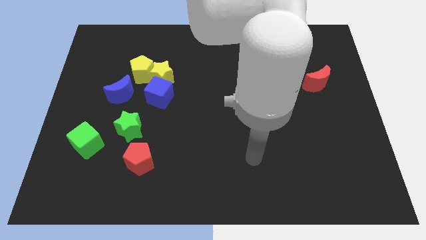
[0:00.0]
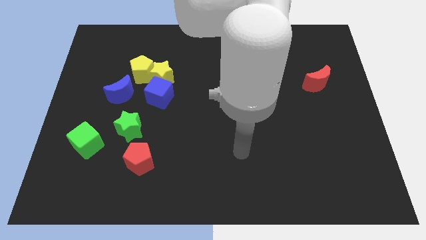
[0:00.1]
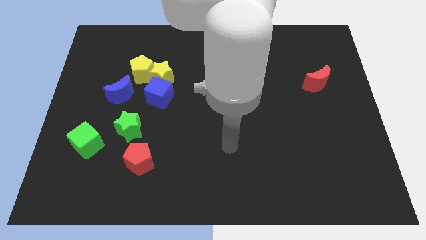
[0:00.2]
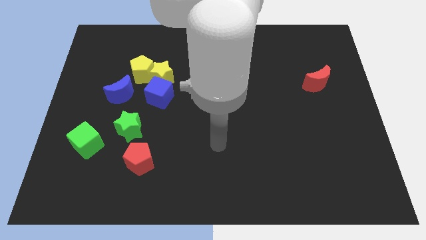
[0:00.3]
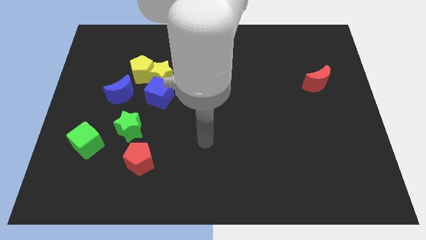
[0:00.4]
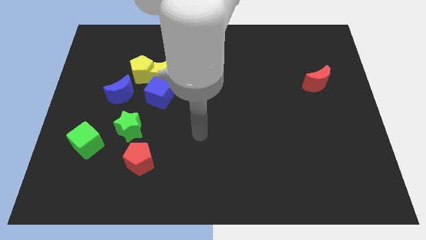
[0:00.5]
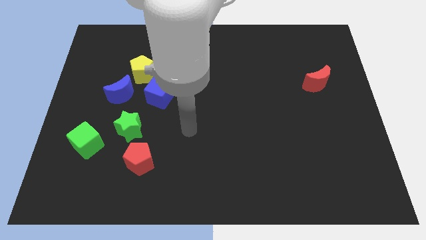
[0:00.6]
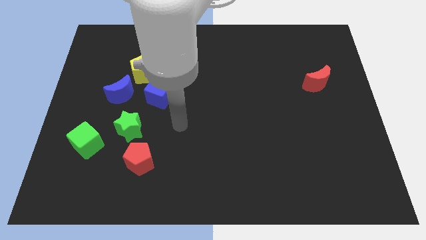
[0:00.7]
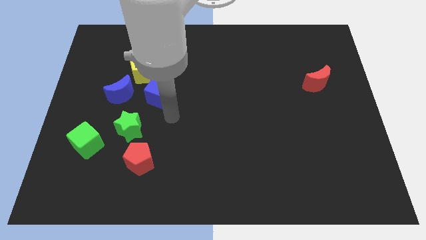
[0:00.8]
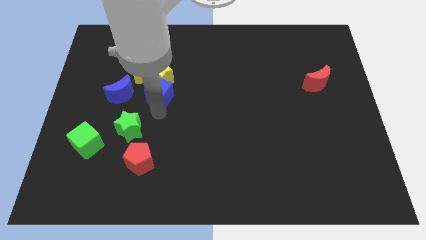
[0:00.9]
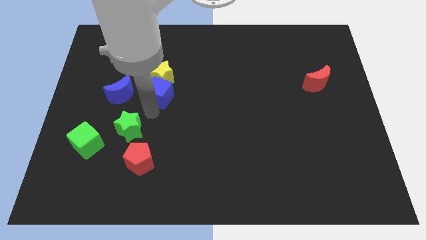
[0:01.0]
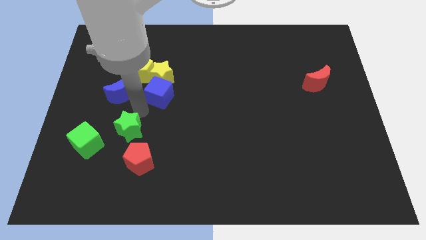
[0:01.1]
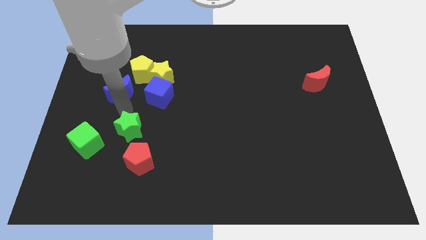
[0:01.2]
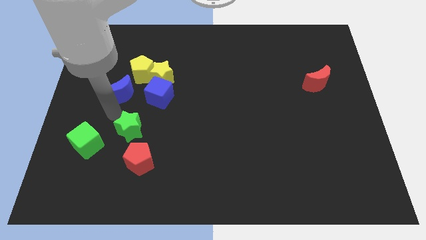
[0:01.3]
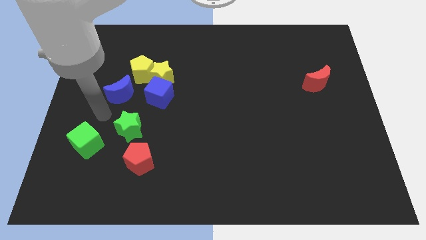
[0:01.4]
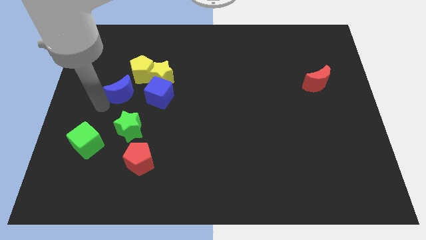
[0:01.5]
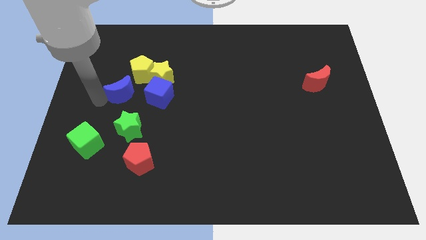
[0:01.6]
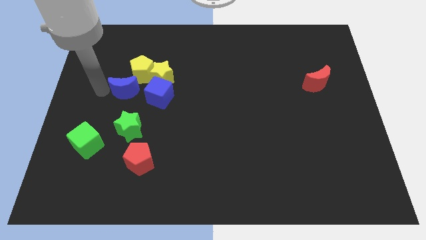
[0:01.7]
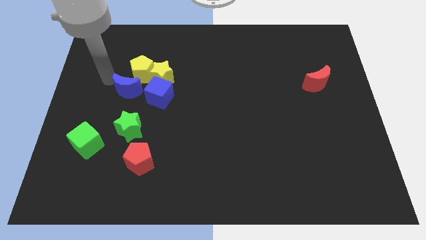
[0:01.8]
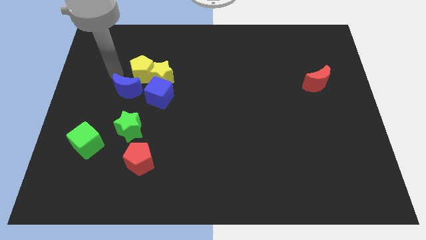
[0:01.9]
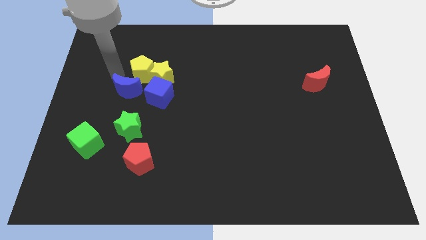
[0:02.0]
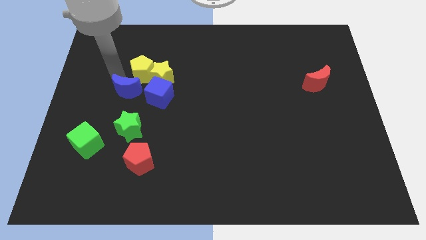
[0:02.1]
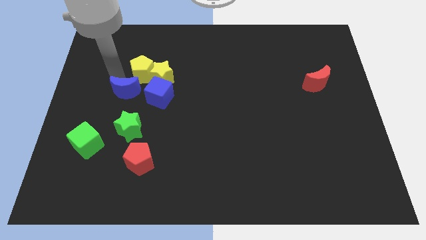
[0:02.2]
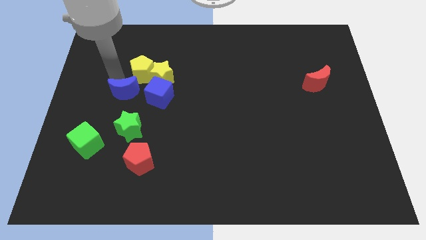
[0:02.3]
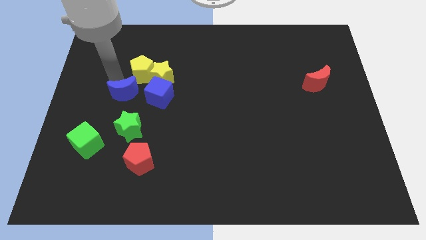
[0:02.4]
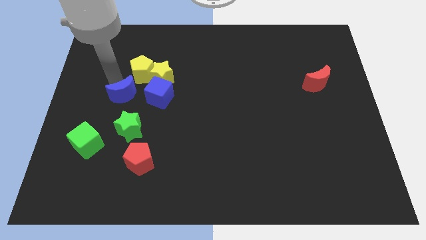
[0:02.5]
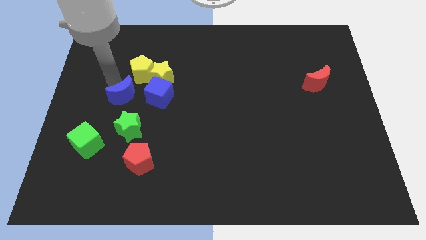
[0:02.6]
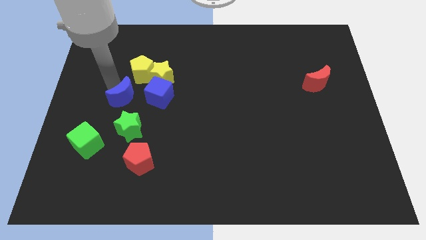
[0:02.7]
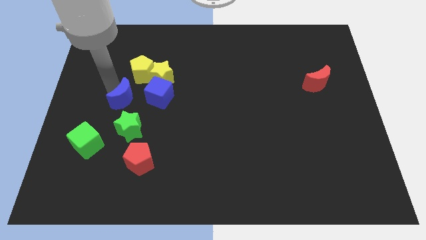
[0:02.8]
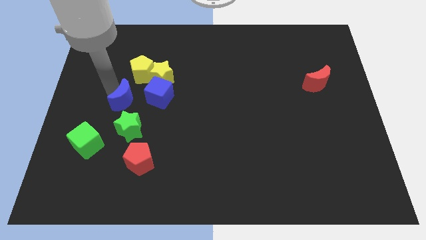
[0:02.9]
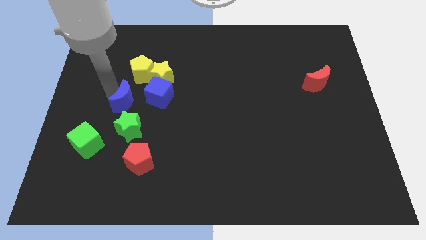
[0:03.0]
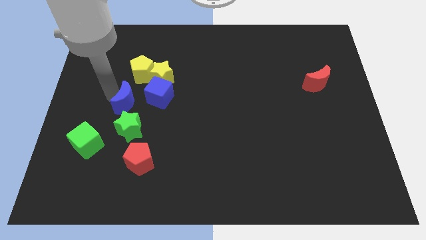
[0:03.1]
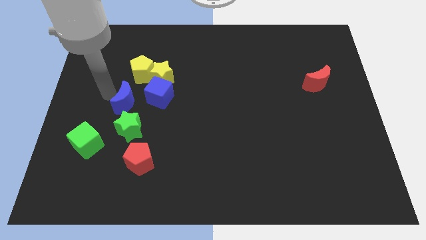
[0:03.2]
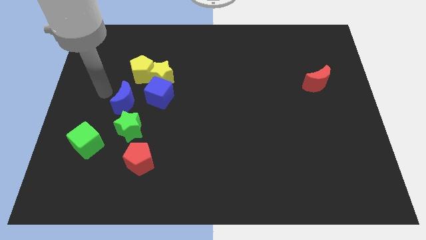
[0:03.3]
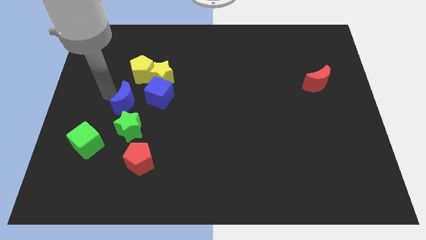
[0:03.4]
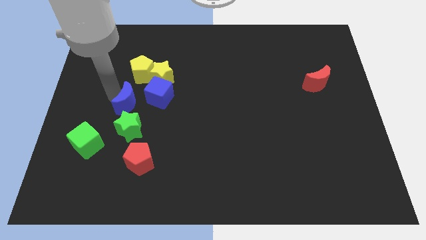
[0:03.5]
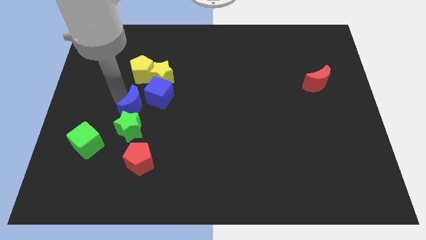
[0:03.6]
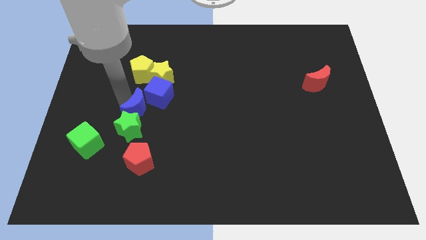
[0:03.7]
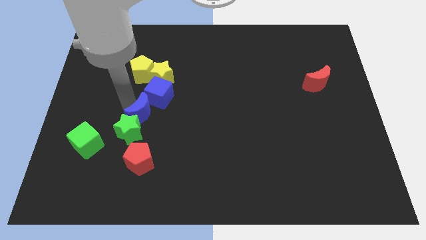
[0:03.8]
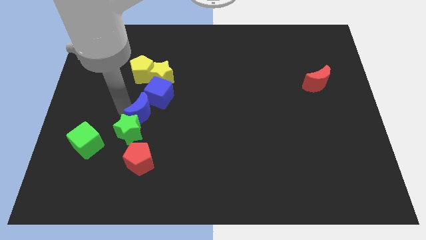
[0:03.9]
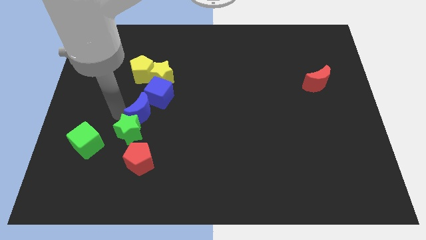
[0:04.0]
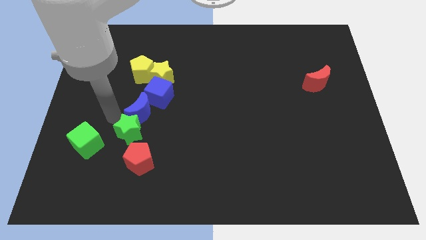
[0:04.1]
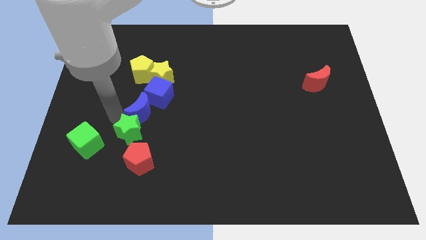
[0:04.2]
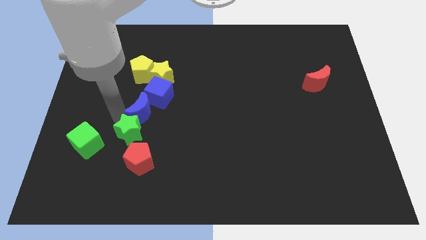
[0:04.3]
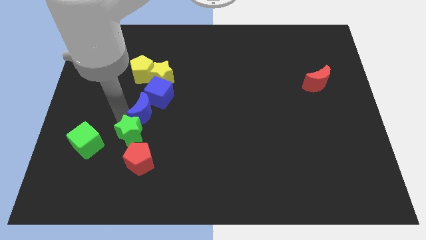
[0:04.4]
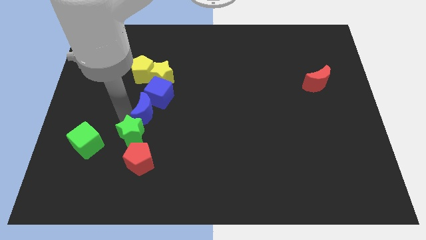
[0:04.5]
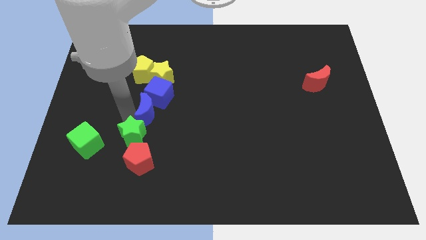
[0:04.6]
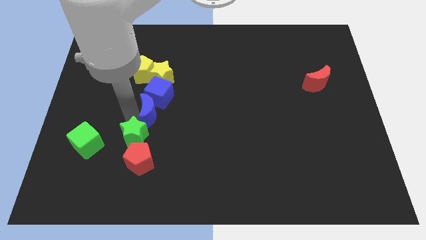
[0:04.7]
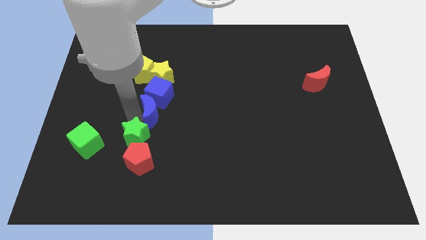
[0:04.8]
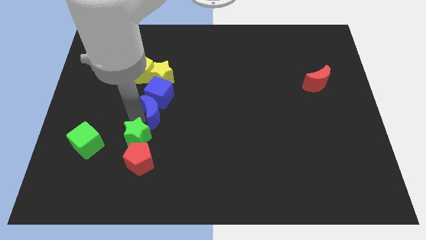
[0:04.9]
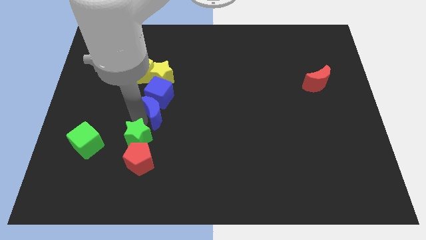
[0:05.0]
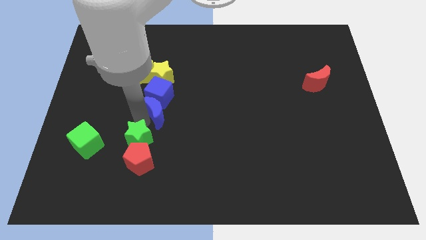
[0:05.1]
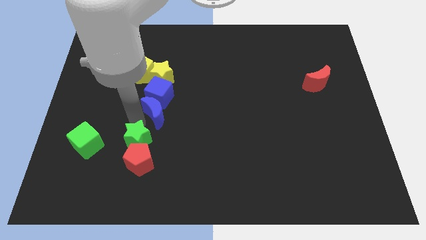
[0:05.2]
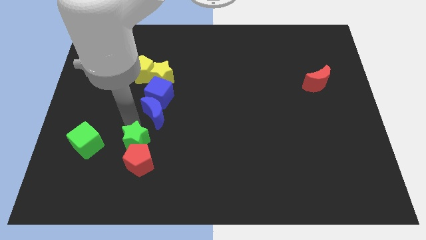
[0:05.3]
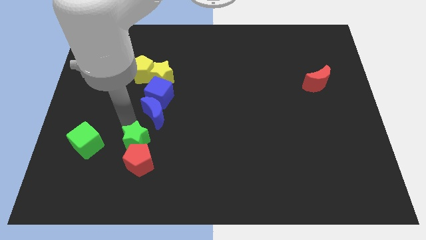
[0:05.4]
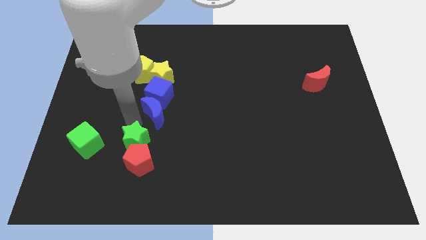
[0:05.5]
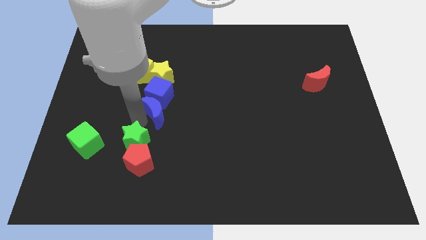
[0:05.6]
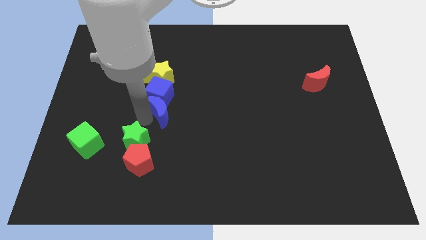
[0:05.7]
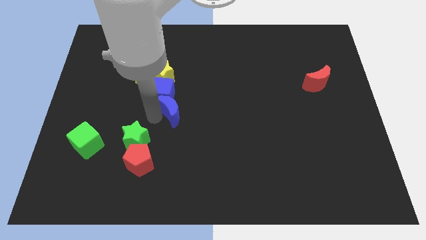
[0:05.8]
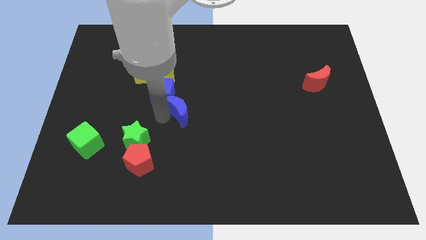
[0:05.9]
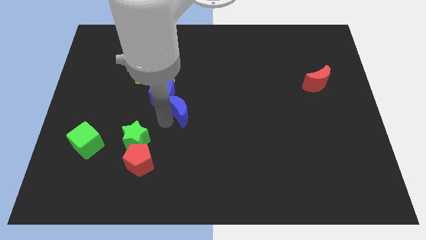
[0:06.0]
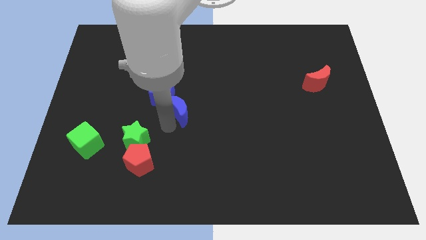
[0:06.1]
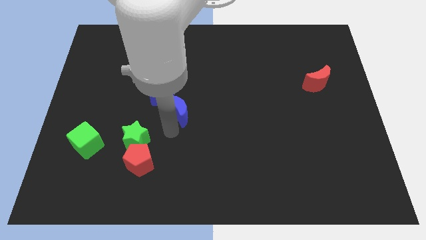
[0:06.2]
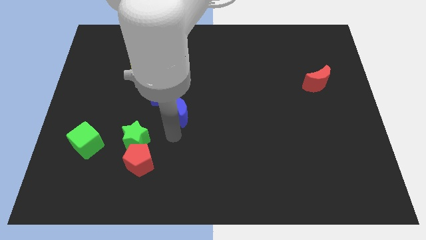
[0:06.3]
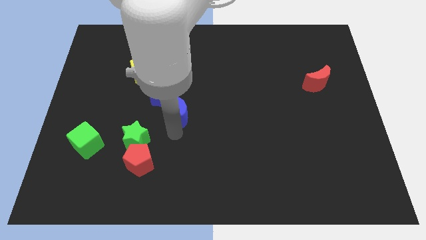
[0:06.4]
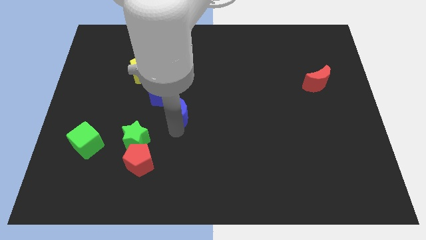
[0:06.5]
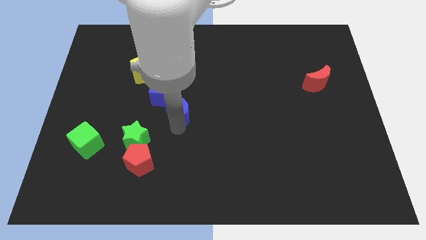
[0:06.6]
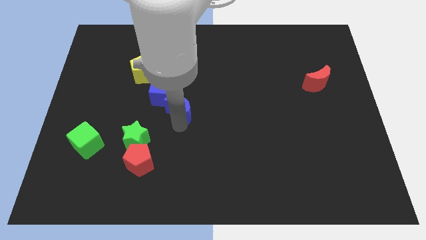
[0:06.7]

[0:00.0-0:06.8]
put the blue moon to the bottom right of the yellow star

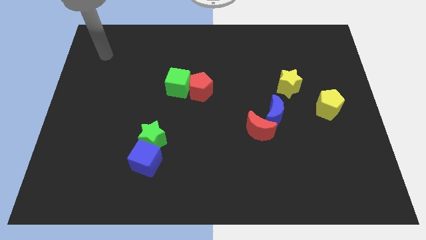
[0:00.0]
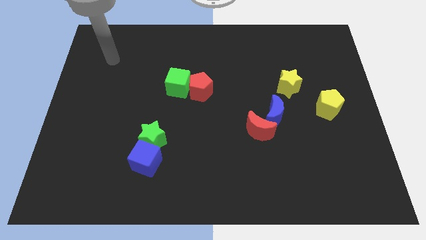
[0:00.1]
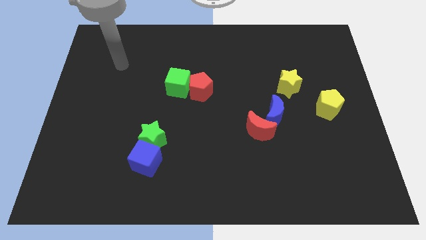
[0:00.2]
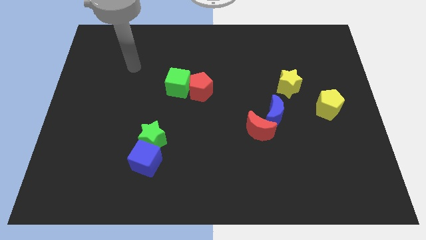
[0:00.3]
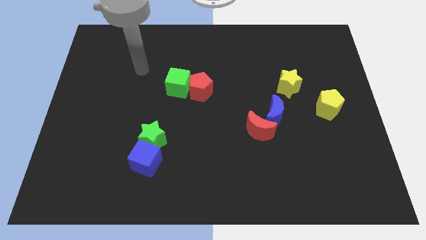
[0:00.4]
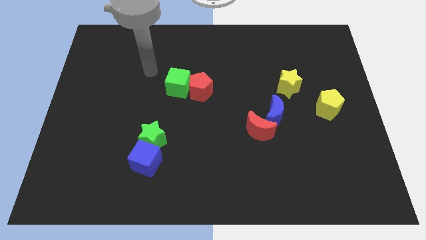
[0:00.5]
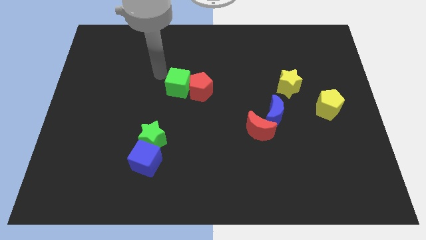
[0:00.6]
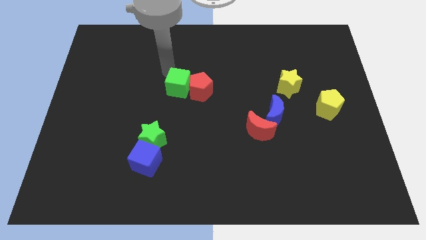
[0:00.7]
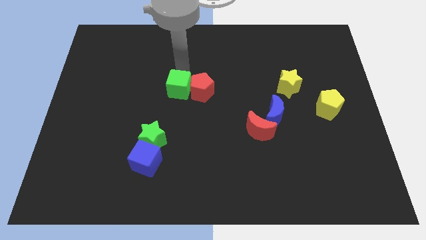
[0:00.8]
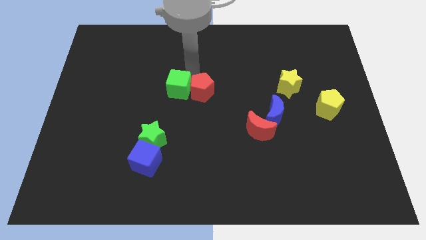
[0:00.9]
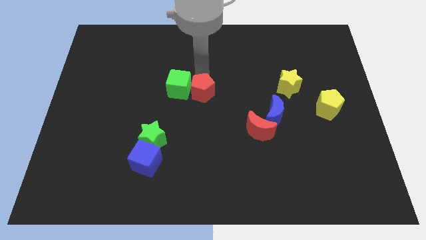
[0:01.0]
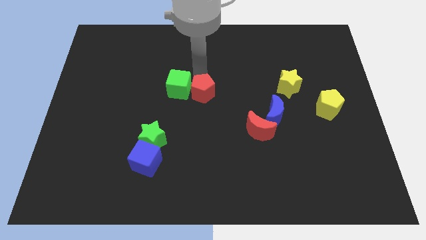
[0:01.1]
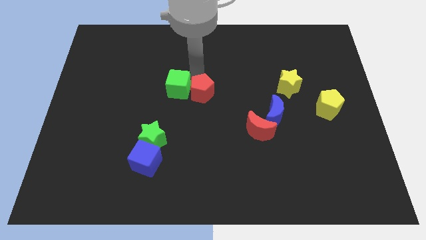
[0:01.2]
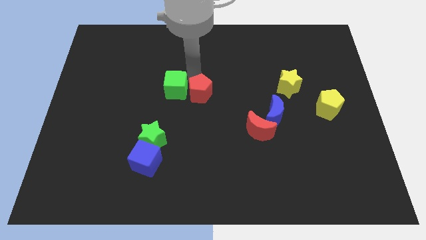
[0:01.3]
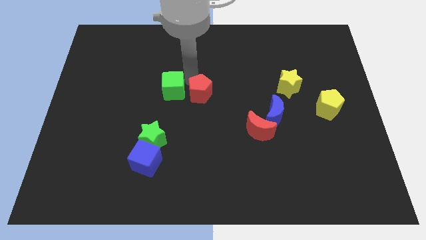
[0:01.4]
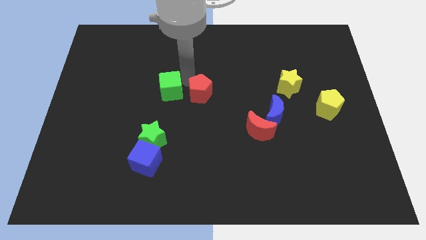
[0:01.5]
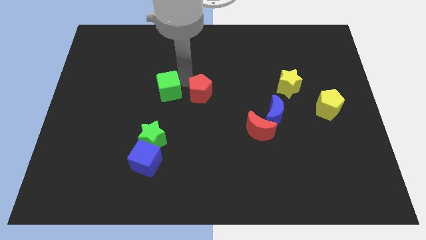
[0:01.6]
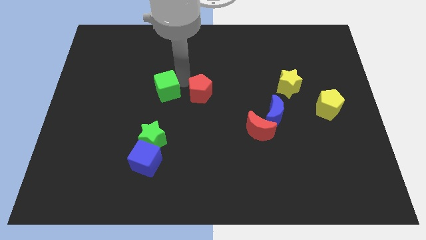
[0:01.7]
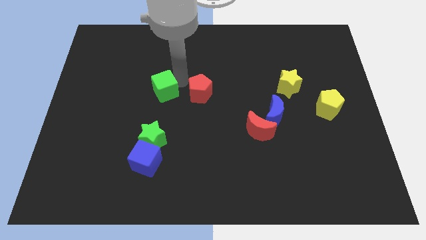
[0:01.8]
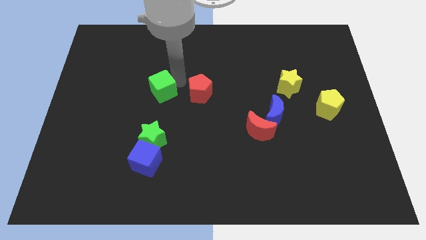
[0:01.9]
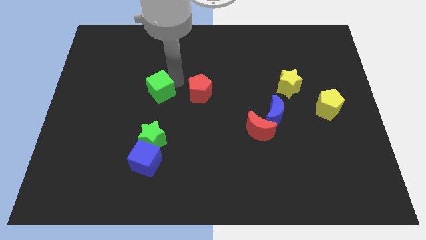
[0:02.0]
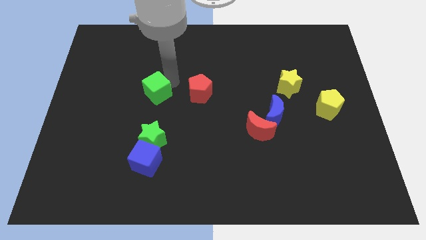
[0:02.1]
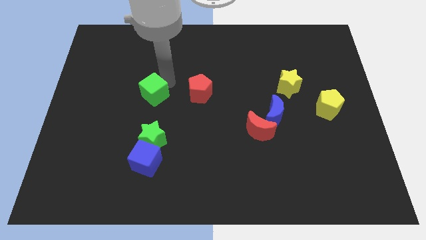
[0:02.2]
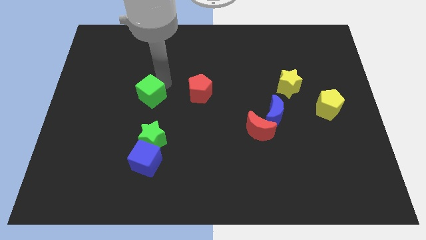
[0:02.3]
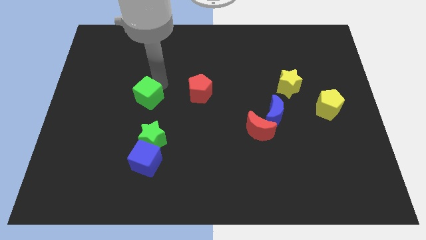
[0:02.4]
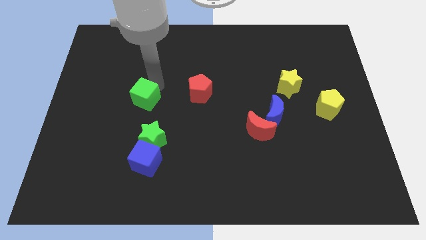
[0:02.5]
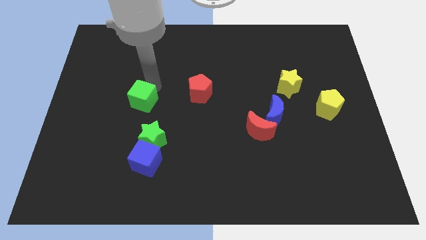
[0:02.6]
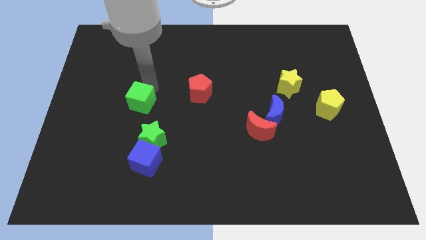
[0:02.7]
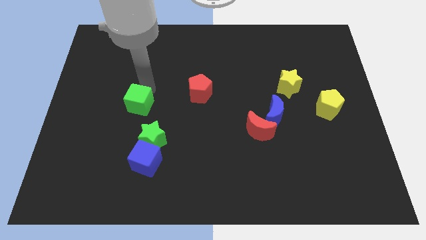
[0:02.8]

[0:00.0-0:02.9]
move the green cube to the top left side of the green star
